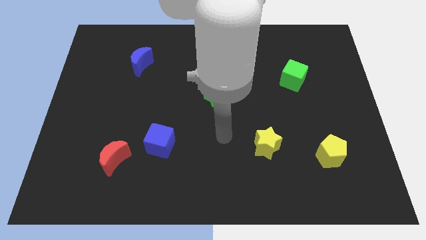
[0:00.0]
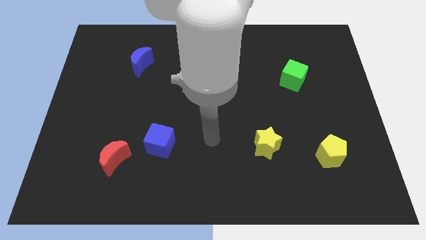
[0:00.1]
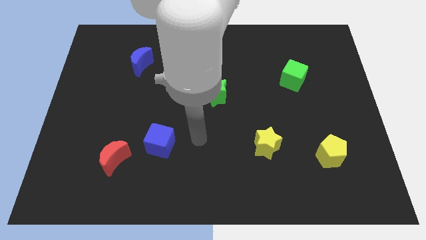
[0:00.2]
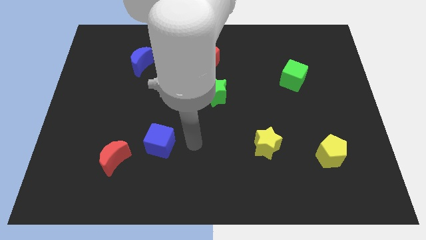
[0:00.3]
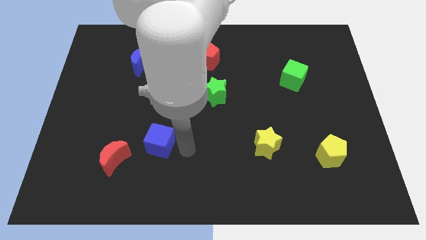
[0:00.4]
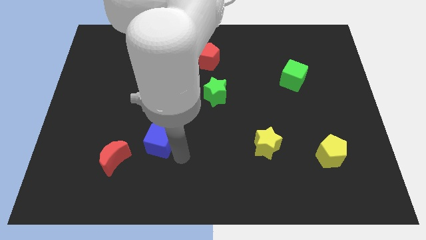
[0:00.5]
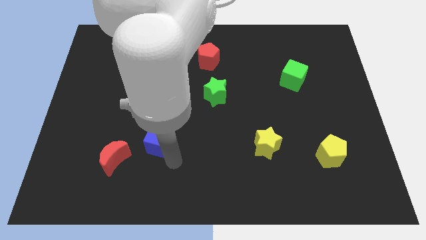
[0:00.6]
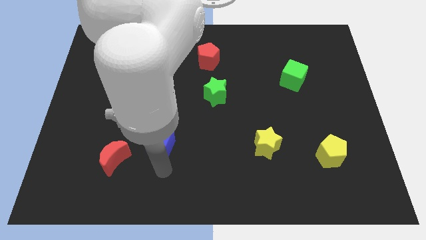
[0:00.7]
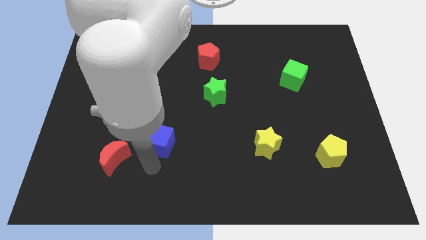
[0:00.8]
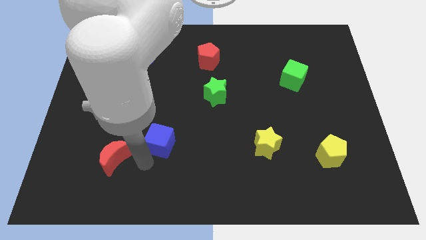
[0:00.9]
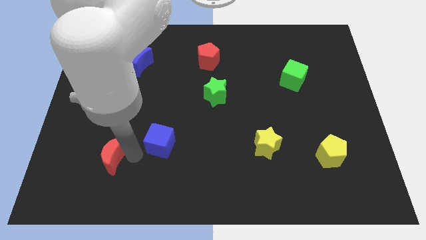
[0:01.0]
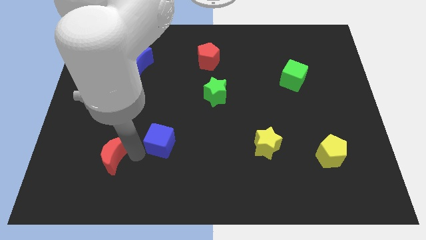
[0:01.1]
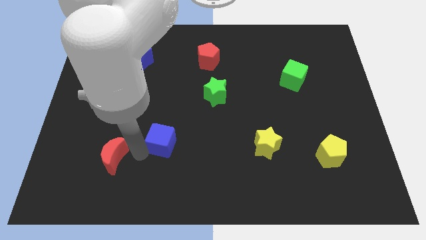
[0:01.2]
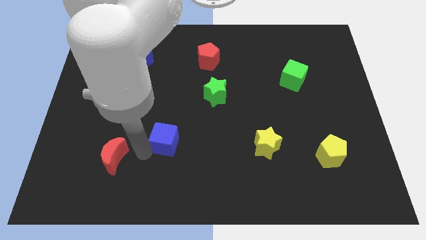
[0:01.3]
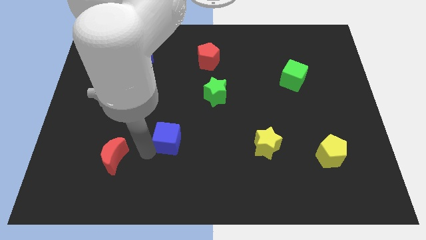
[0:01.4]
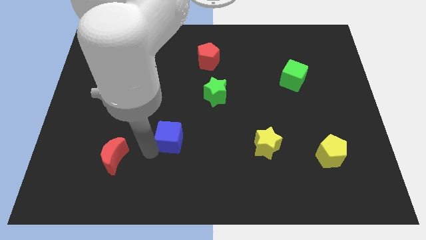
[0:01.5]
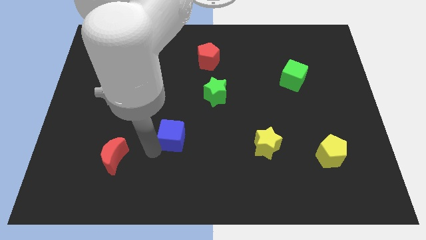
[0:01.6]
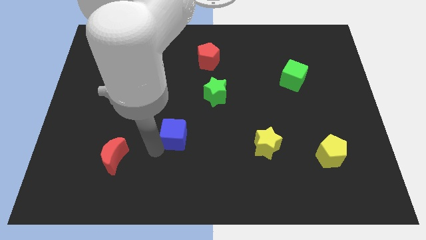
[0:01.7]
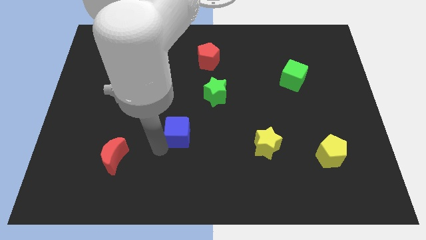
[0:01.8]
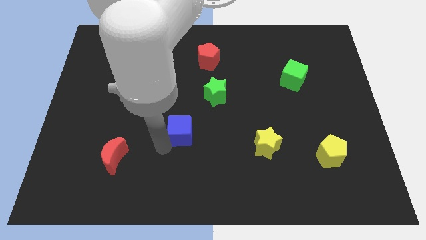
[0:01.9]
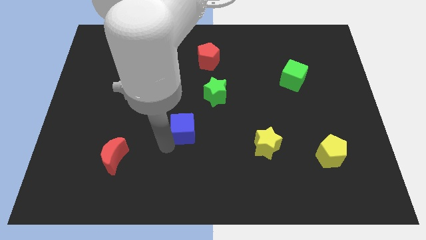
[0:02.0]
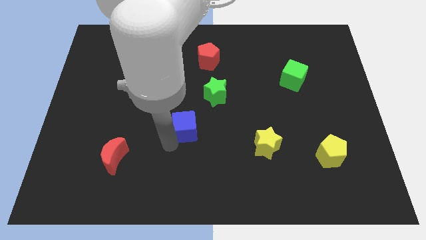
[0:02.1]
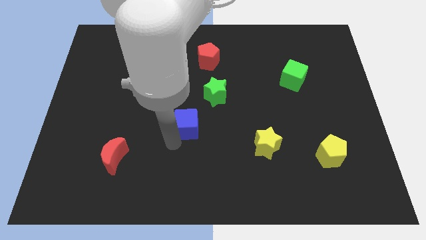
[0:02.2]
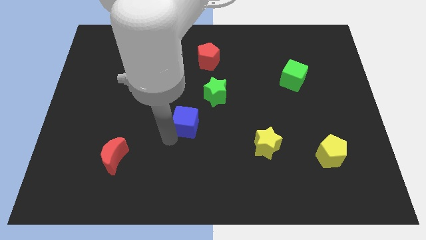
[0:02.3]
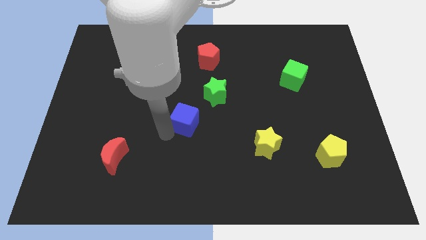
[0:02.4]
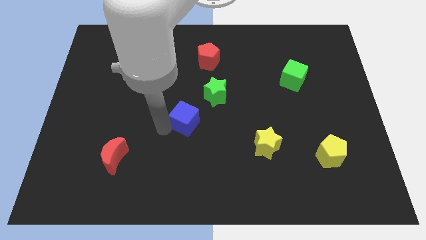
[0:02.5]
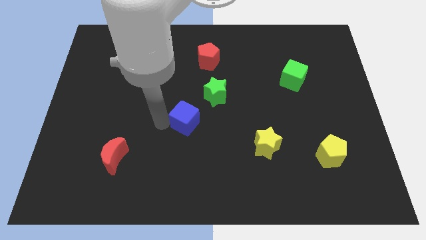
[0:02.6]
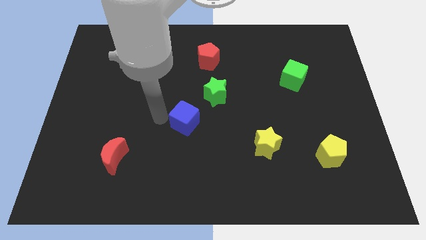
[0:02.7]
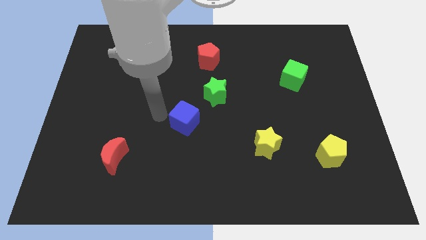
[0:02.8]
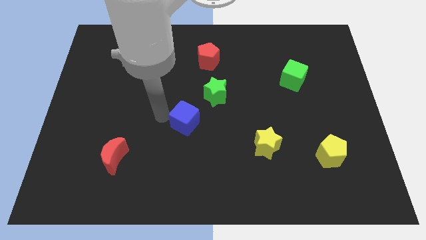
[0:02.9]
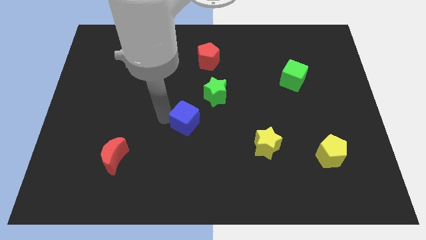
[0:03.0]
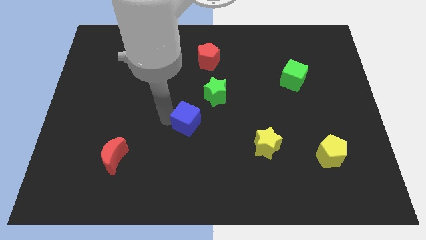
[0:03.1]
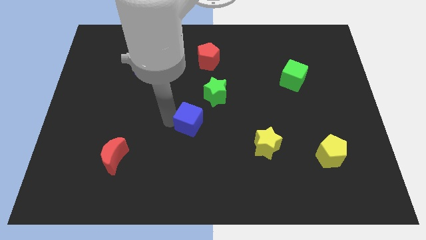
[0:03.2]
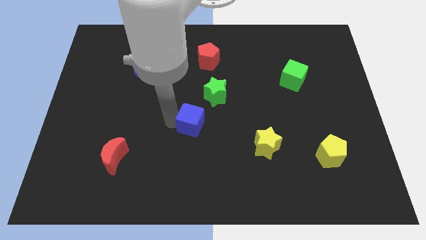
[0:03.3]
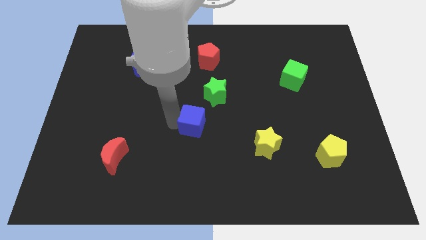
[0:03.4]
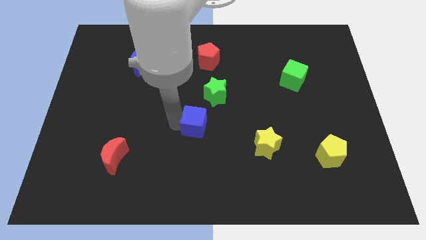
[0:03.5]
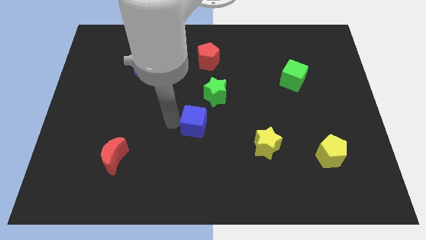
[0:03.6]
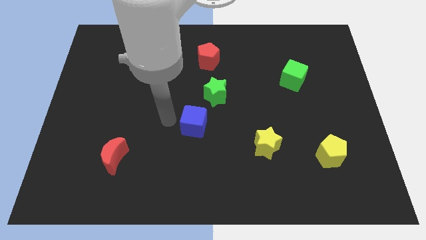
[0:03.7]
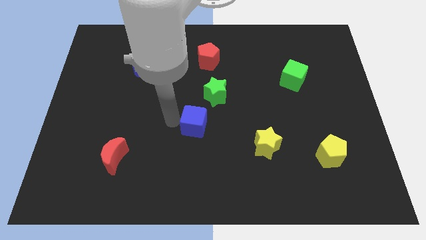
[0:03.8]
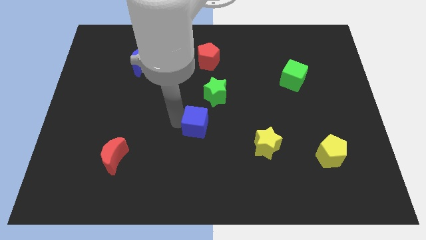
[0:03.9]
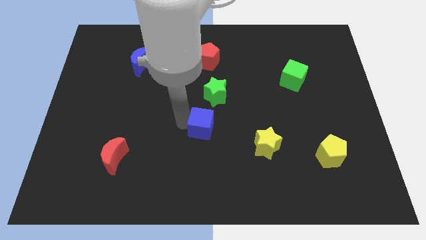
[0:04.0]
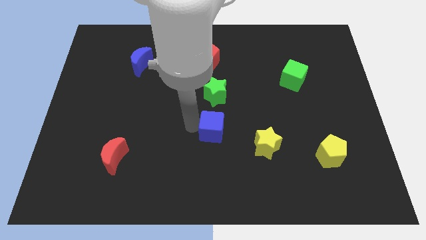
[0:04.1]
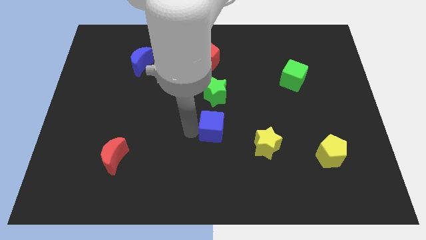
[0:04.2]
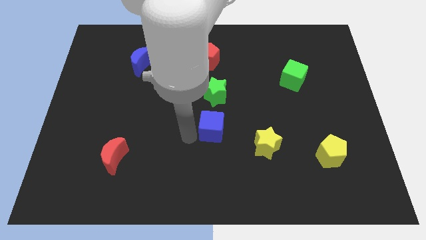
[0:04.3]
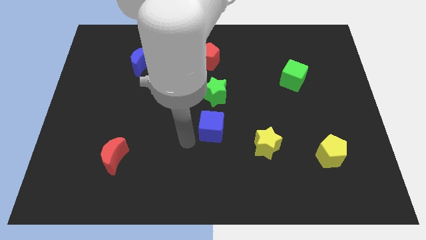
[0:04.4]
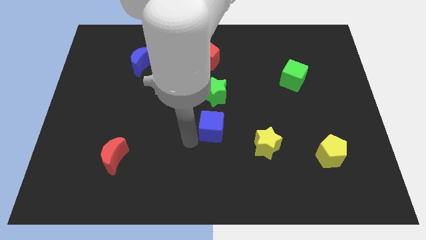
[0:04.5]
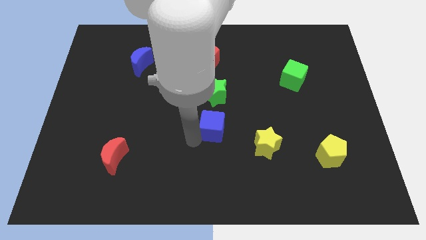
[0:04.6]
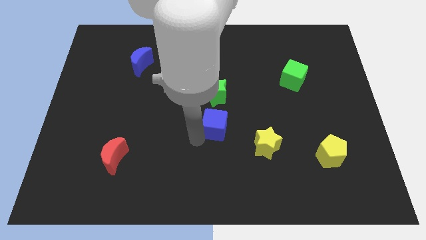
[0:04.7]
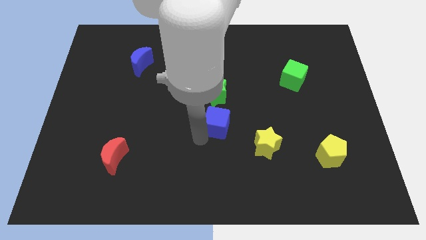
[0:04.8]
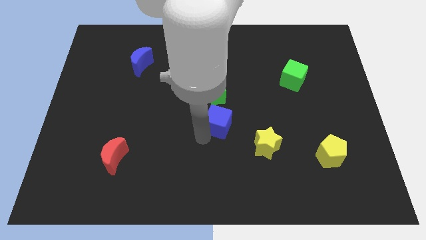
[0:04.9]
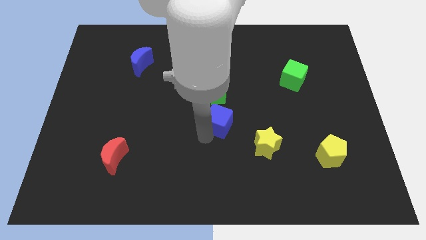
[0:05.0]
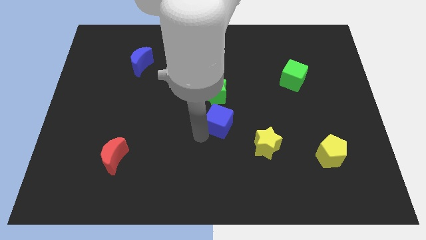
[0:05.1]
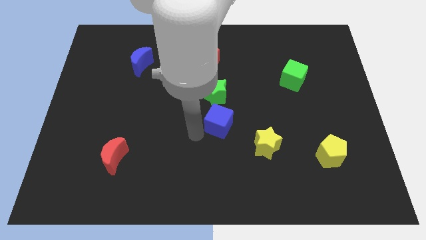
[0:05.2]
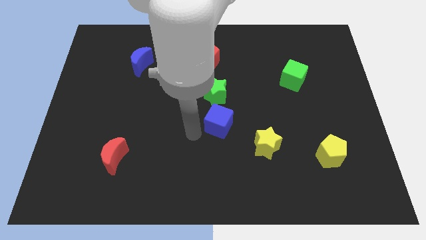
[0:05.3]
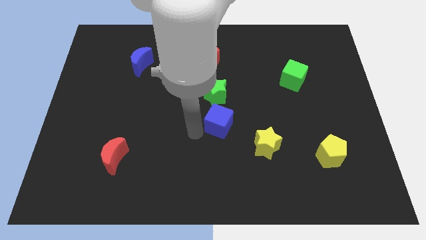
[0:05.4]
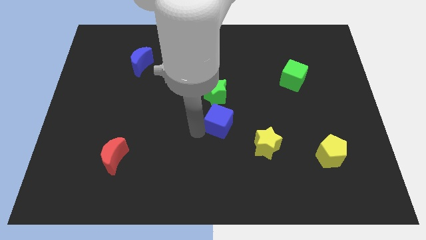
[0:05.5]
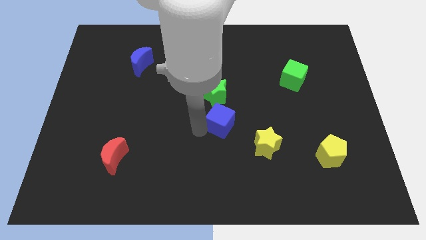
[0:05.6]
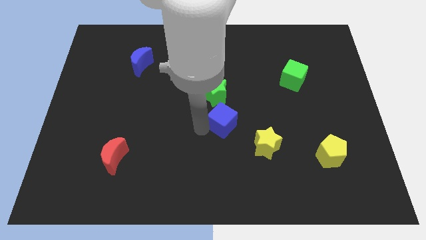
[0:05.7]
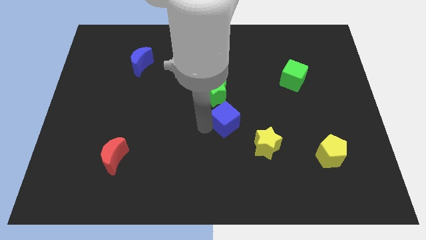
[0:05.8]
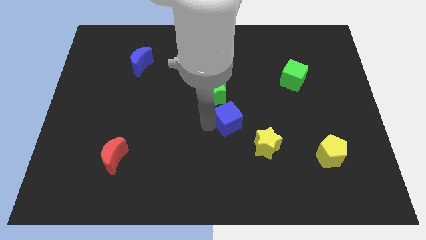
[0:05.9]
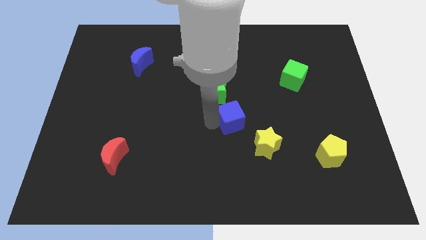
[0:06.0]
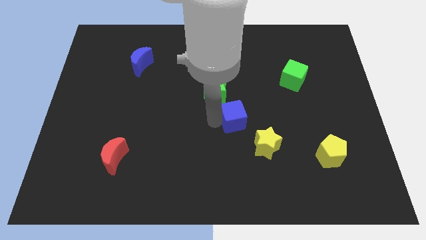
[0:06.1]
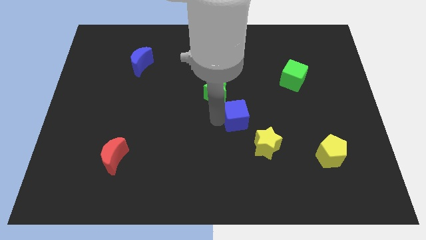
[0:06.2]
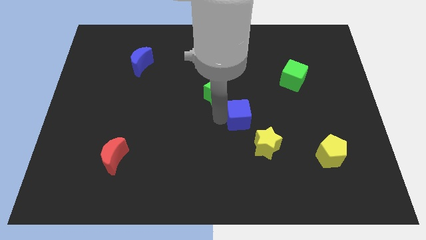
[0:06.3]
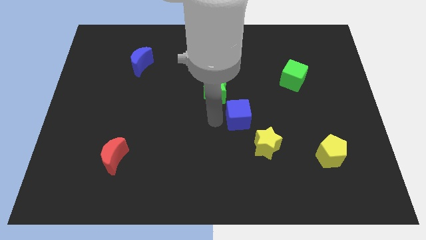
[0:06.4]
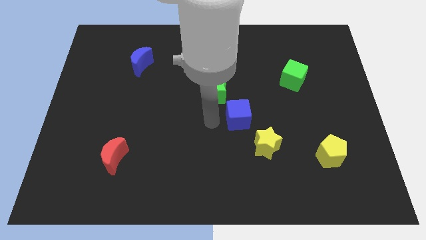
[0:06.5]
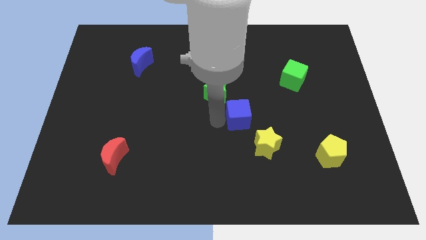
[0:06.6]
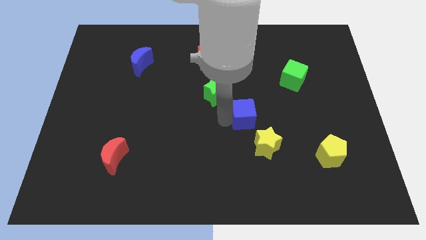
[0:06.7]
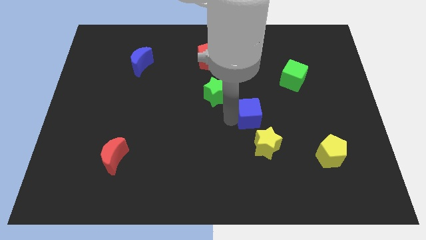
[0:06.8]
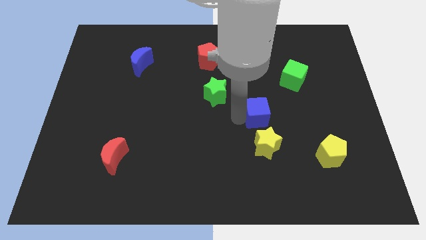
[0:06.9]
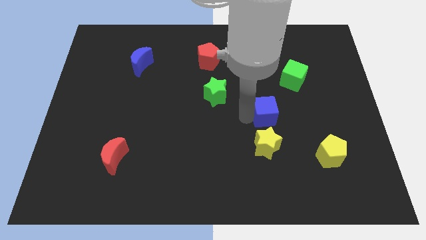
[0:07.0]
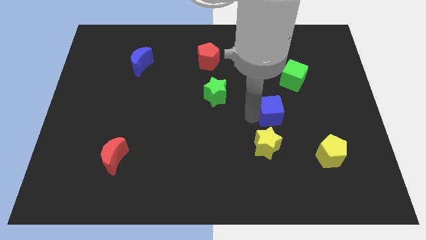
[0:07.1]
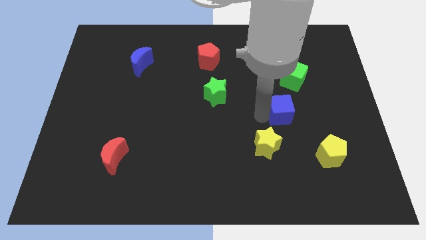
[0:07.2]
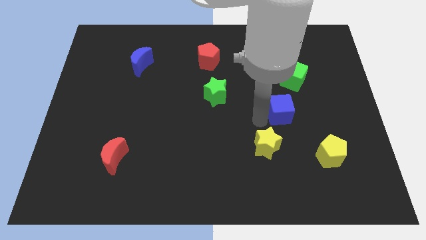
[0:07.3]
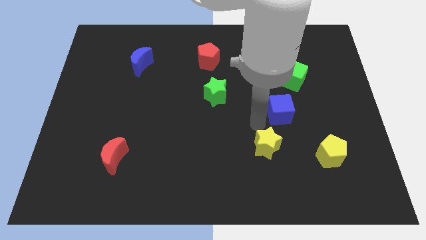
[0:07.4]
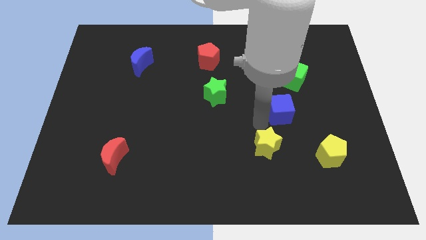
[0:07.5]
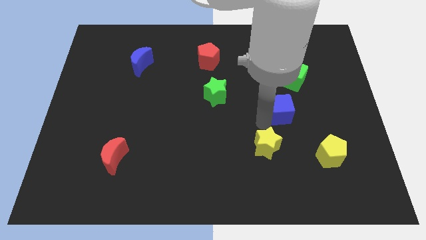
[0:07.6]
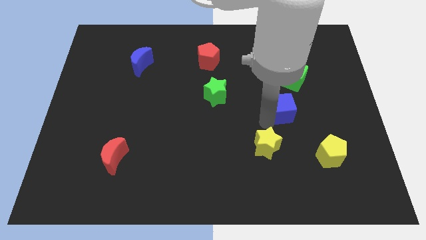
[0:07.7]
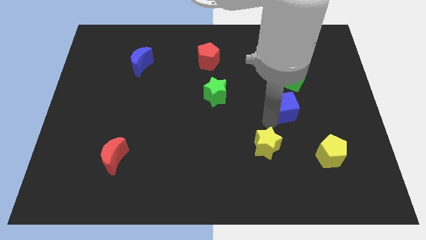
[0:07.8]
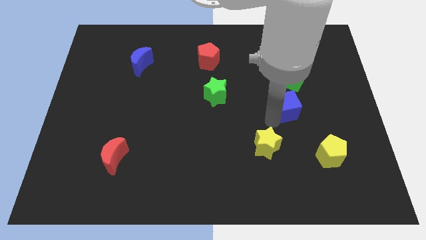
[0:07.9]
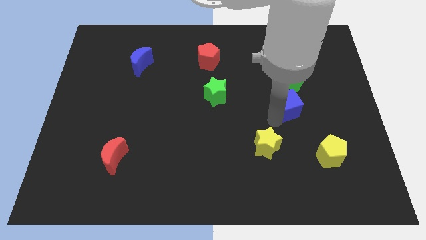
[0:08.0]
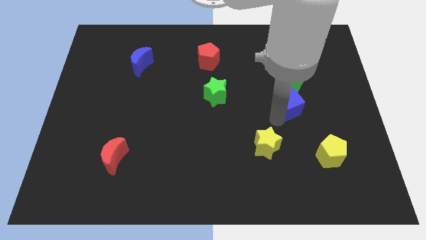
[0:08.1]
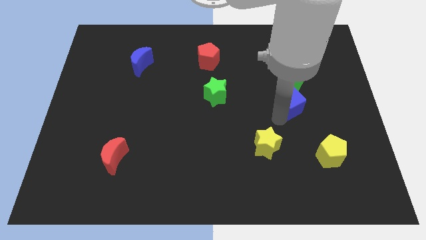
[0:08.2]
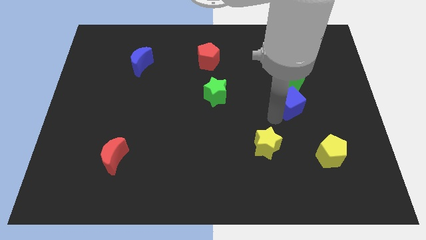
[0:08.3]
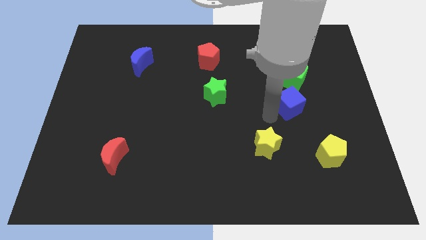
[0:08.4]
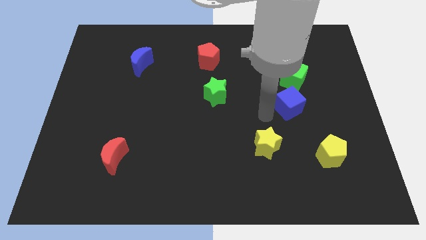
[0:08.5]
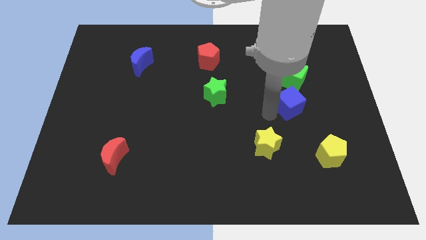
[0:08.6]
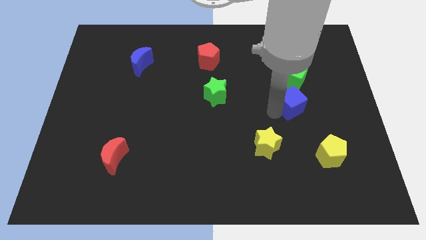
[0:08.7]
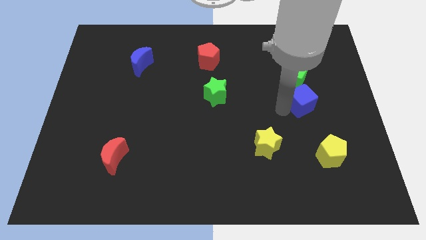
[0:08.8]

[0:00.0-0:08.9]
put the blue cube to the bottom right side of the green cube
